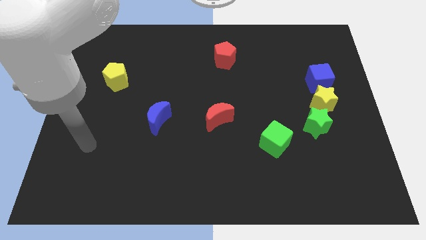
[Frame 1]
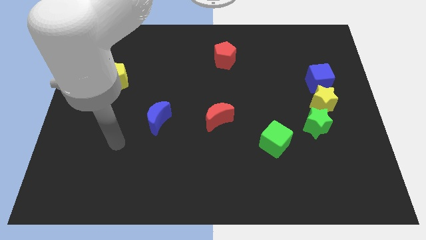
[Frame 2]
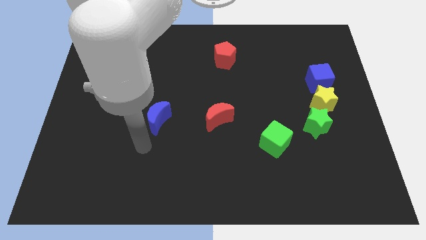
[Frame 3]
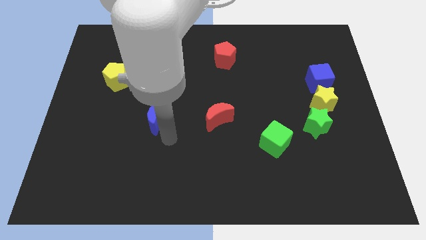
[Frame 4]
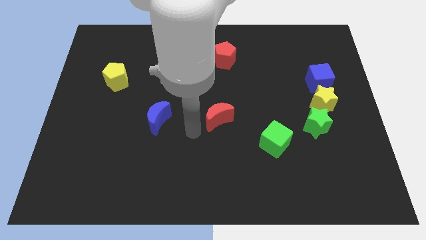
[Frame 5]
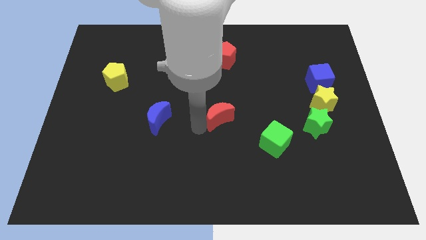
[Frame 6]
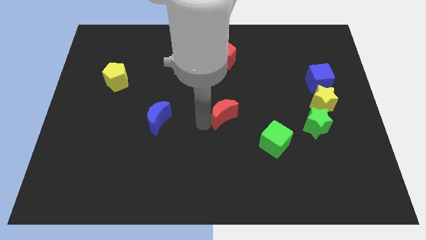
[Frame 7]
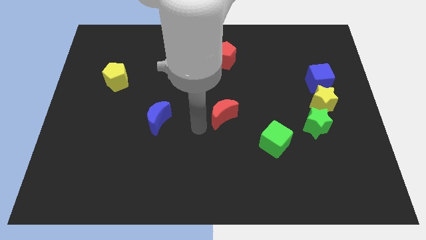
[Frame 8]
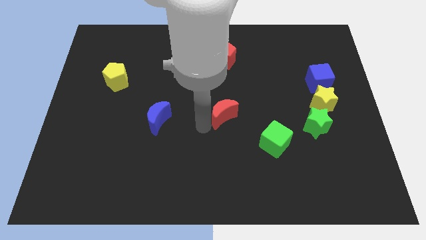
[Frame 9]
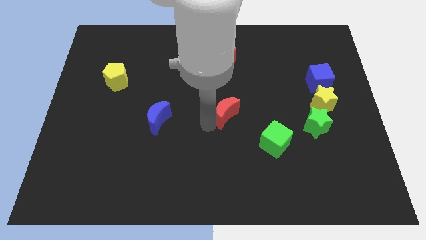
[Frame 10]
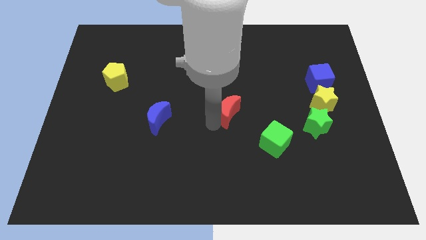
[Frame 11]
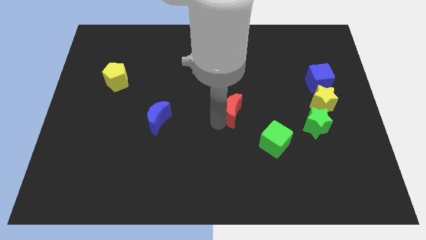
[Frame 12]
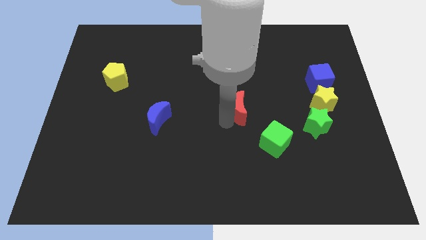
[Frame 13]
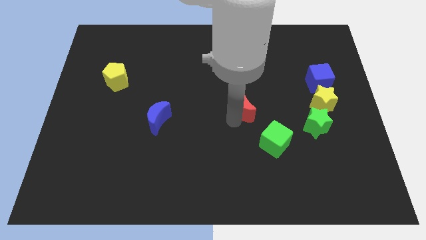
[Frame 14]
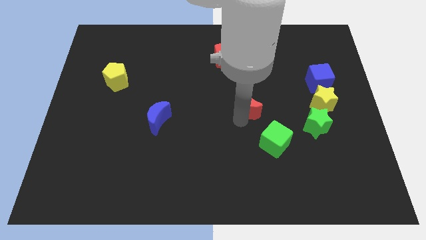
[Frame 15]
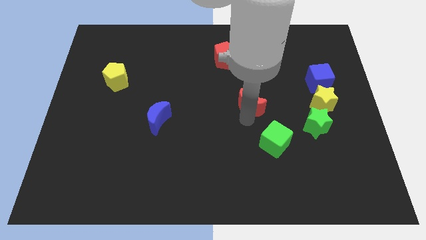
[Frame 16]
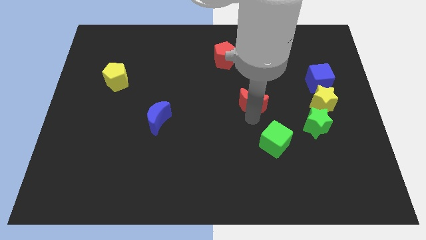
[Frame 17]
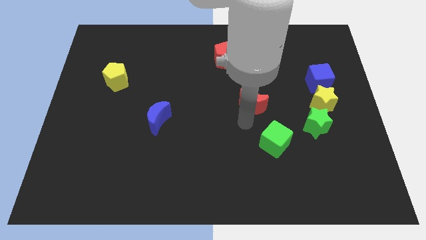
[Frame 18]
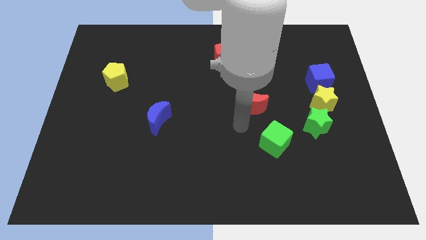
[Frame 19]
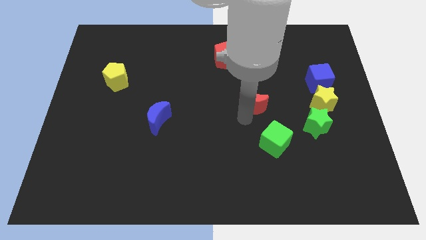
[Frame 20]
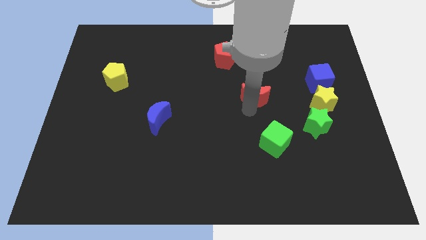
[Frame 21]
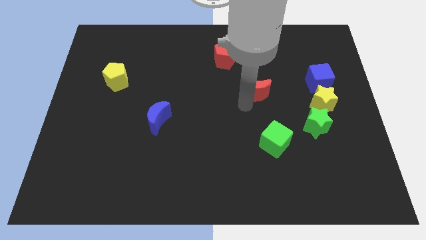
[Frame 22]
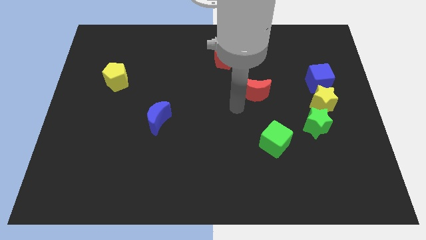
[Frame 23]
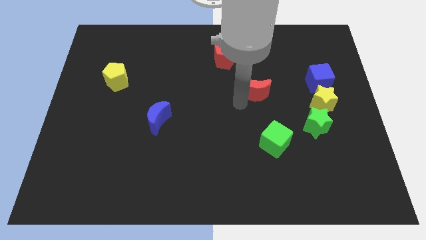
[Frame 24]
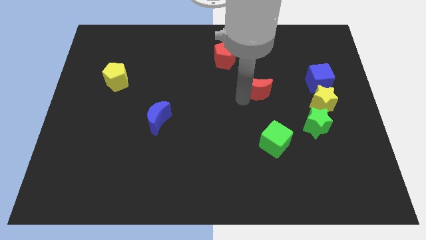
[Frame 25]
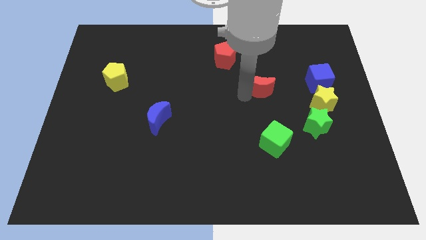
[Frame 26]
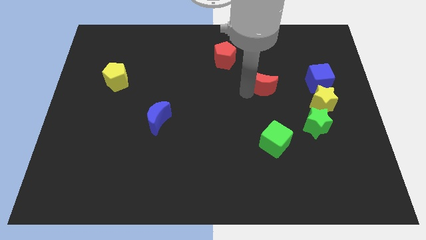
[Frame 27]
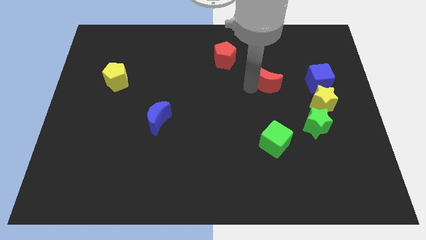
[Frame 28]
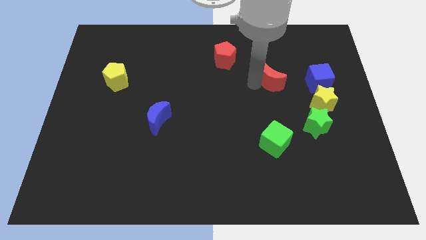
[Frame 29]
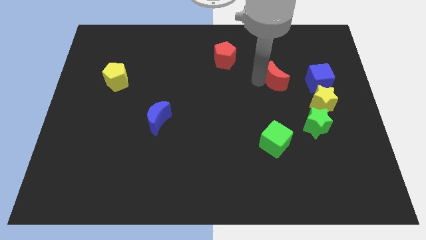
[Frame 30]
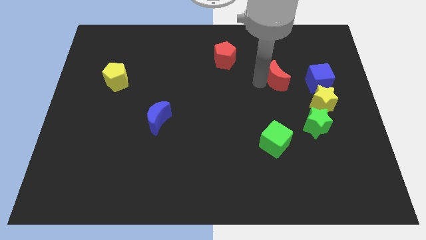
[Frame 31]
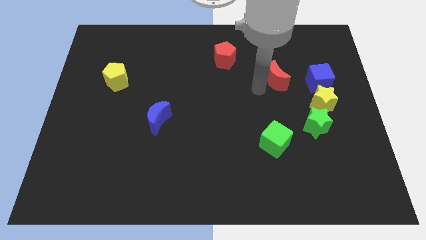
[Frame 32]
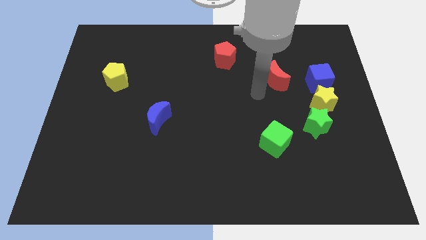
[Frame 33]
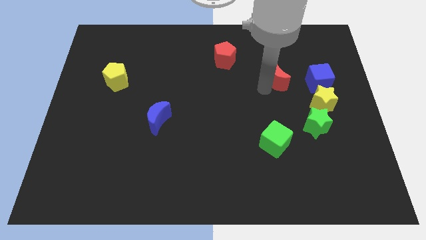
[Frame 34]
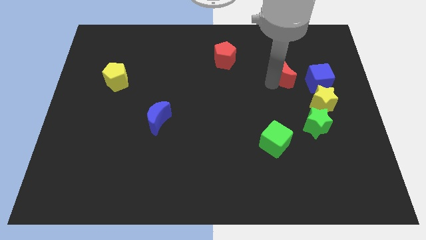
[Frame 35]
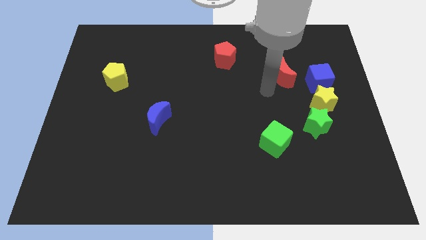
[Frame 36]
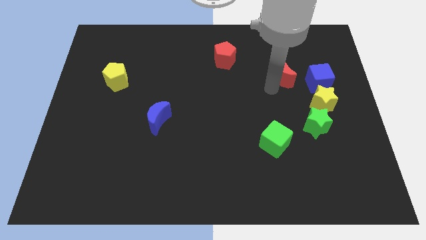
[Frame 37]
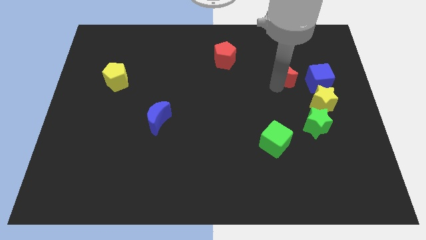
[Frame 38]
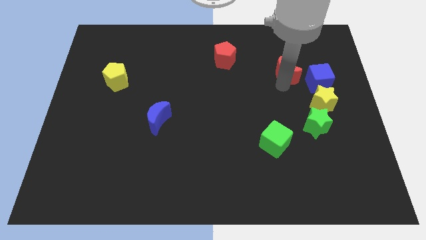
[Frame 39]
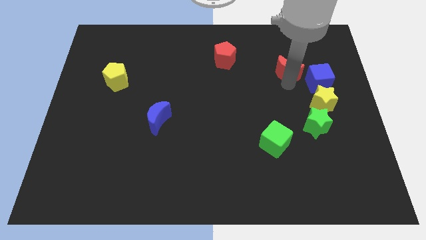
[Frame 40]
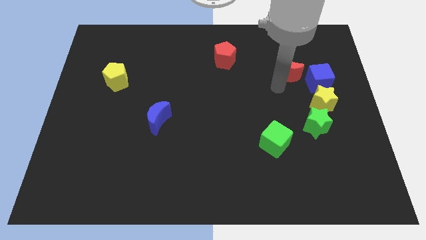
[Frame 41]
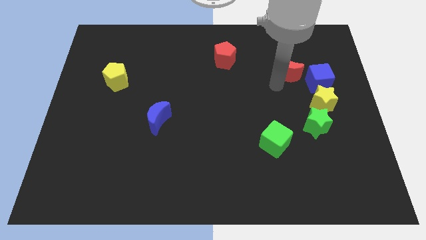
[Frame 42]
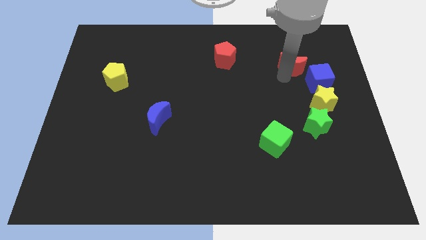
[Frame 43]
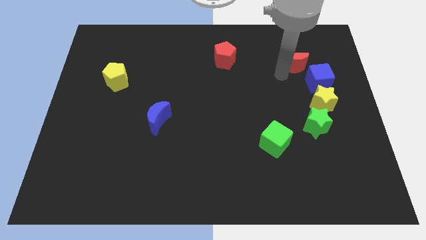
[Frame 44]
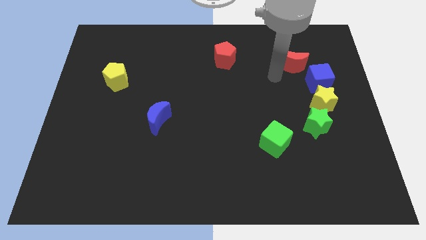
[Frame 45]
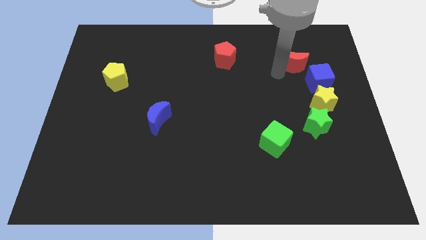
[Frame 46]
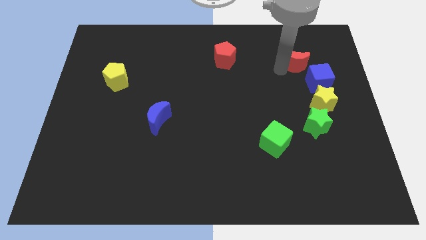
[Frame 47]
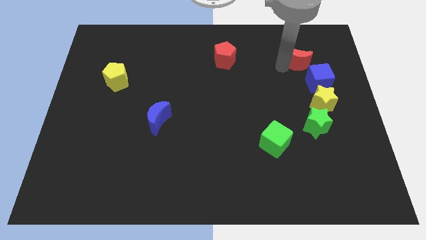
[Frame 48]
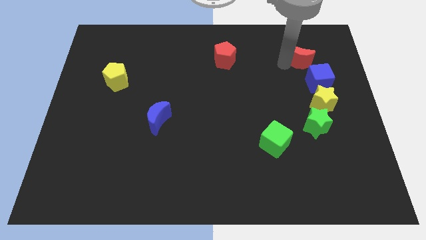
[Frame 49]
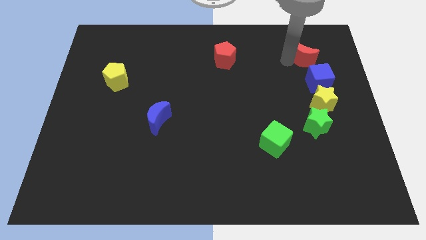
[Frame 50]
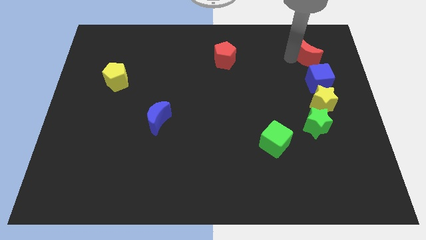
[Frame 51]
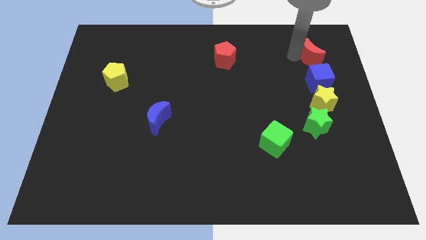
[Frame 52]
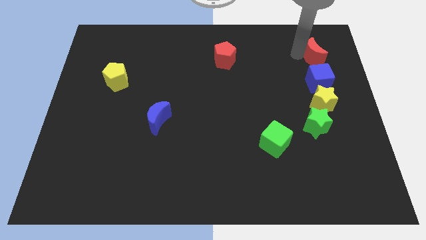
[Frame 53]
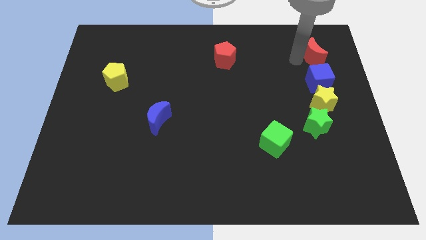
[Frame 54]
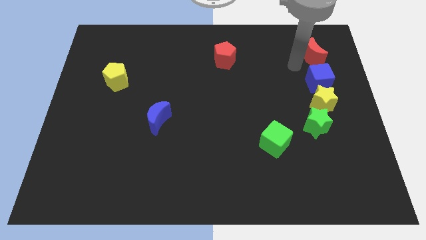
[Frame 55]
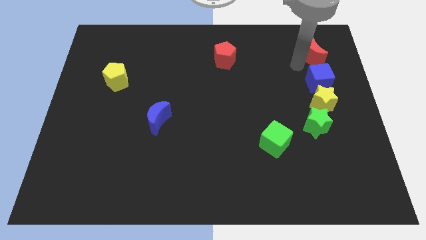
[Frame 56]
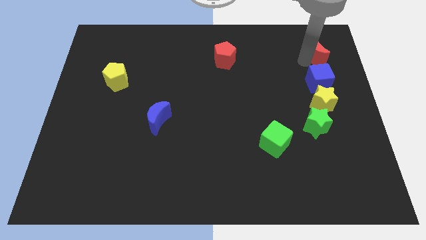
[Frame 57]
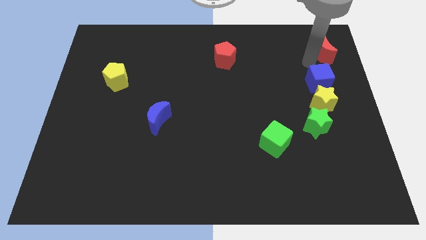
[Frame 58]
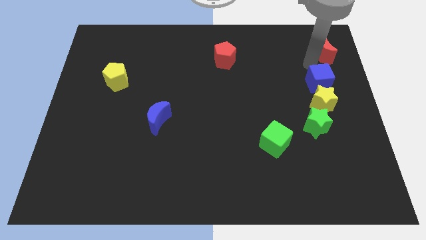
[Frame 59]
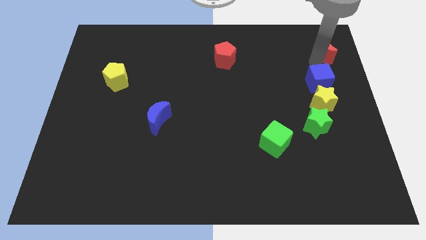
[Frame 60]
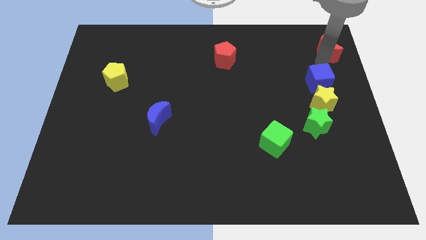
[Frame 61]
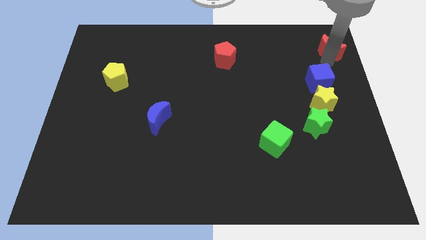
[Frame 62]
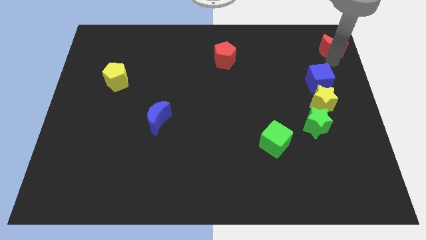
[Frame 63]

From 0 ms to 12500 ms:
move the red moon to the upper right corner

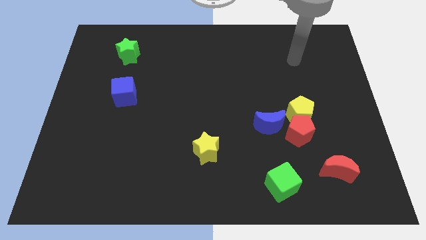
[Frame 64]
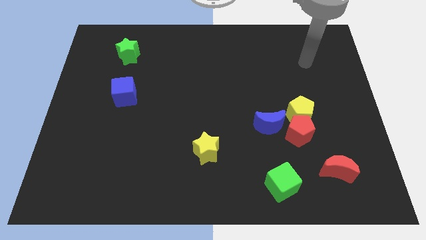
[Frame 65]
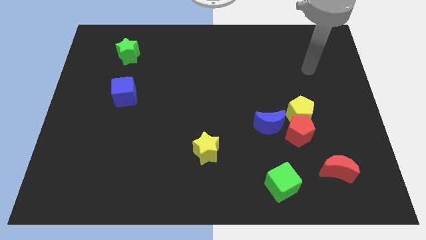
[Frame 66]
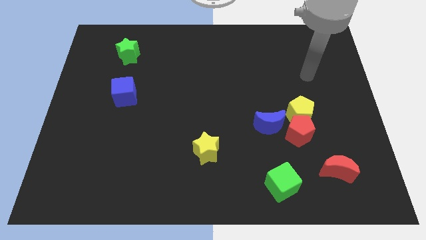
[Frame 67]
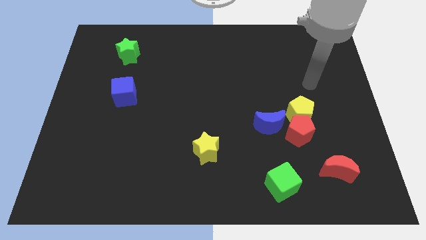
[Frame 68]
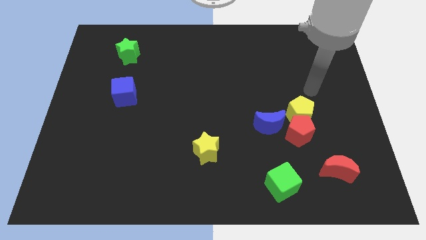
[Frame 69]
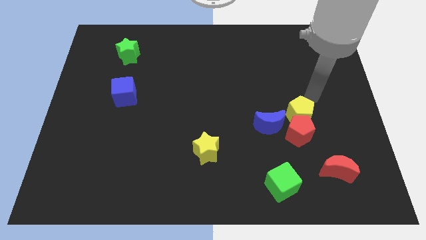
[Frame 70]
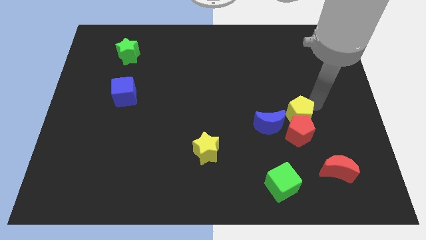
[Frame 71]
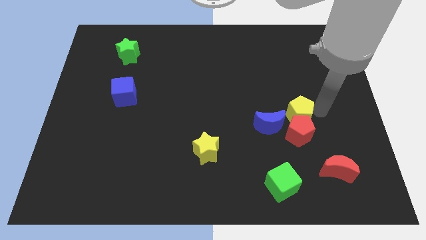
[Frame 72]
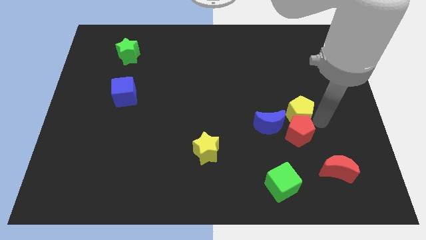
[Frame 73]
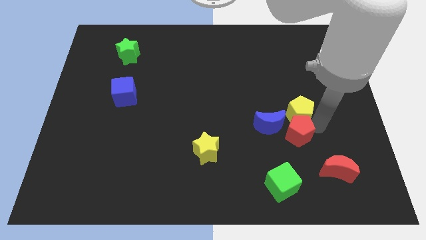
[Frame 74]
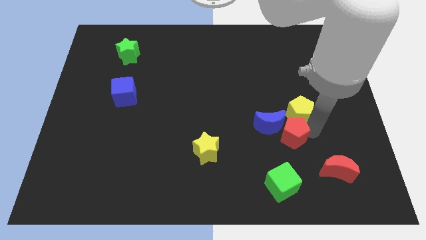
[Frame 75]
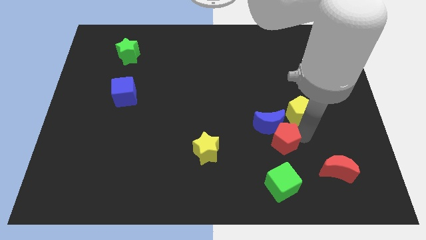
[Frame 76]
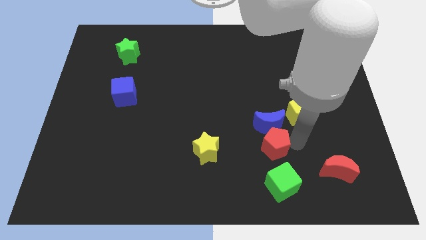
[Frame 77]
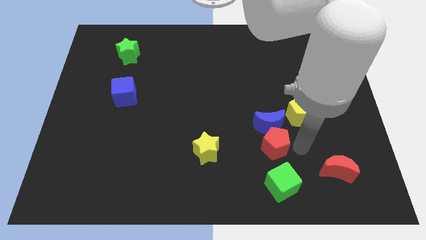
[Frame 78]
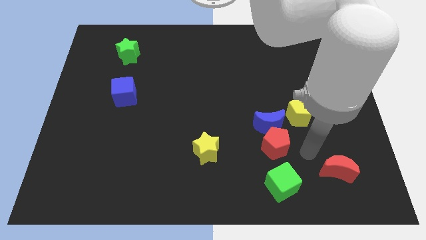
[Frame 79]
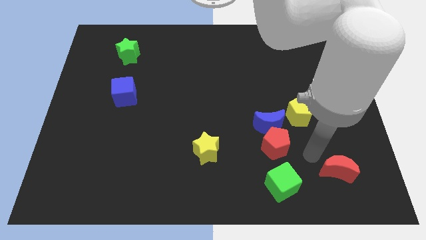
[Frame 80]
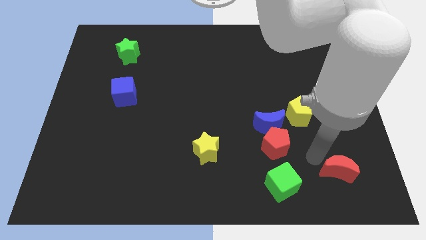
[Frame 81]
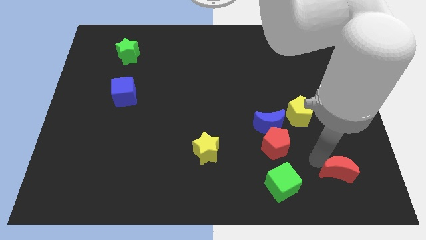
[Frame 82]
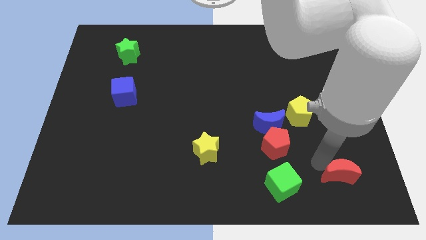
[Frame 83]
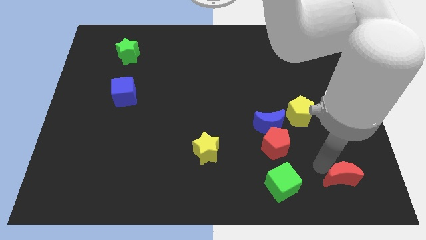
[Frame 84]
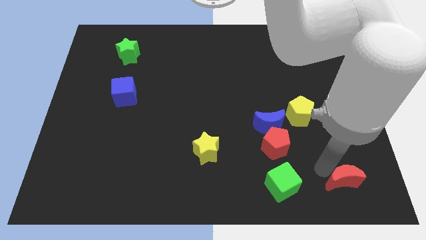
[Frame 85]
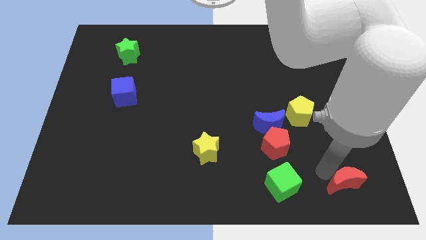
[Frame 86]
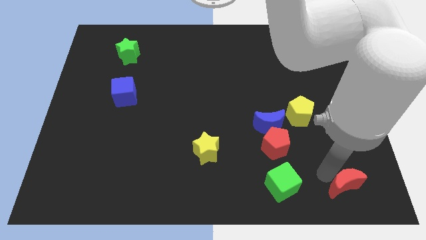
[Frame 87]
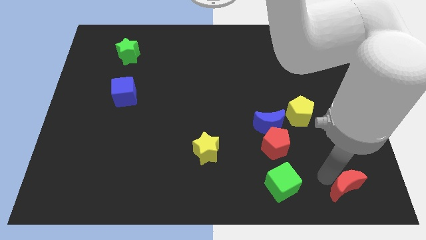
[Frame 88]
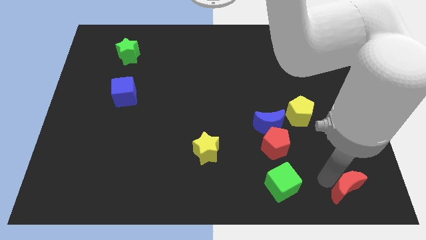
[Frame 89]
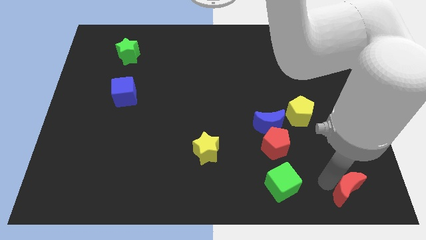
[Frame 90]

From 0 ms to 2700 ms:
move the red moon to the bottom right
